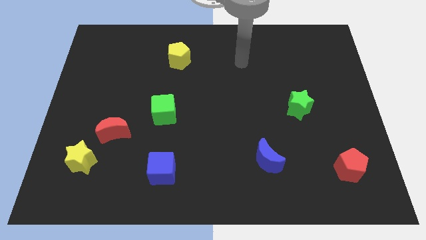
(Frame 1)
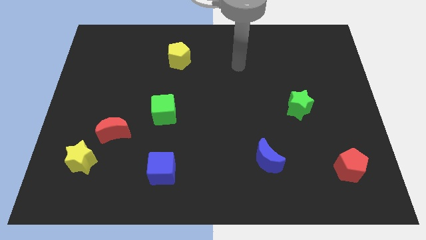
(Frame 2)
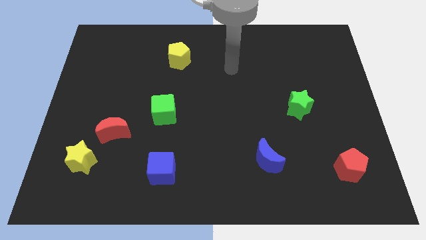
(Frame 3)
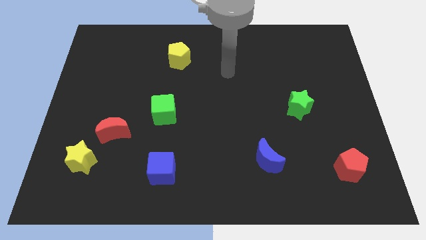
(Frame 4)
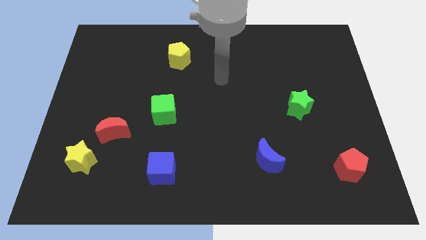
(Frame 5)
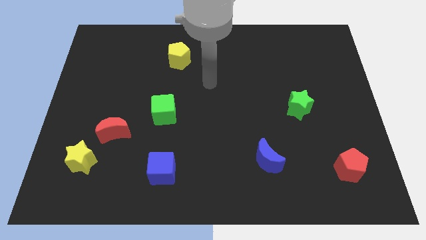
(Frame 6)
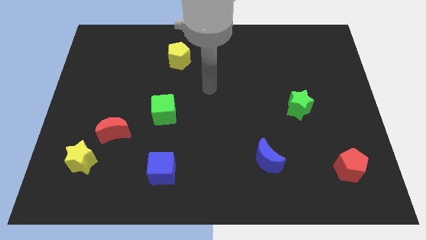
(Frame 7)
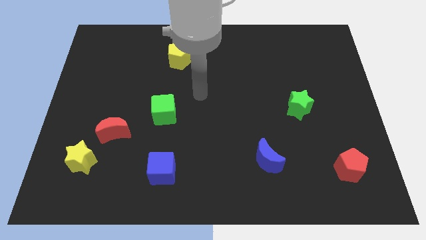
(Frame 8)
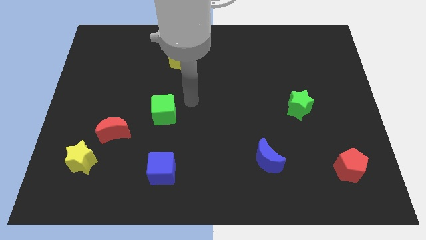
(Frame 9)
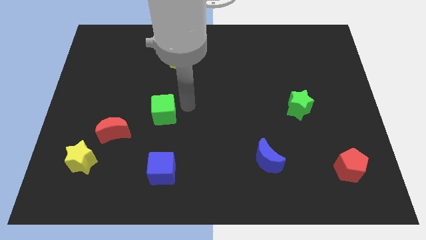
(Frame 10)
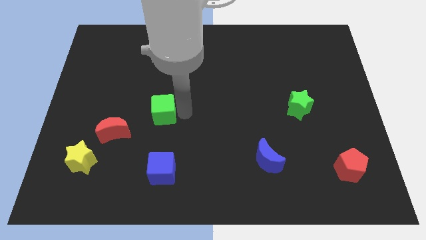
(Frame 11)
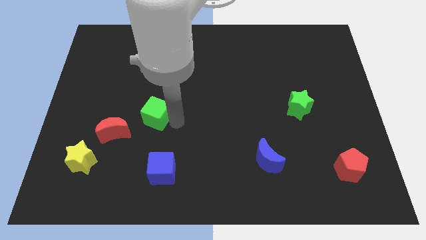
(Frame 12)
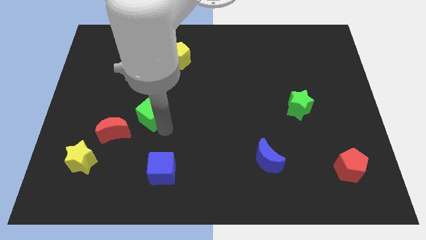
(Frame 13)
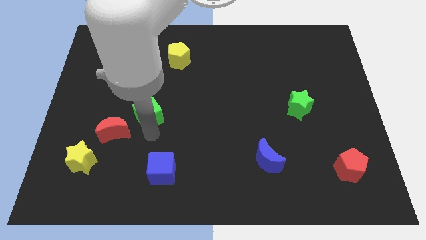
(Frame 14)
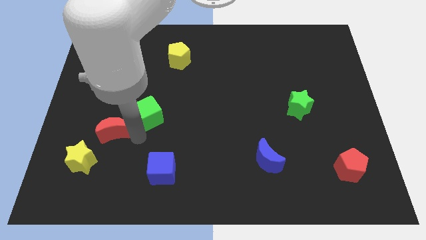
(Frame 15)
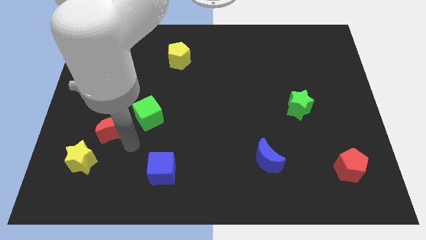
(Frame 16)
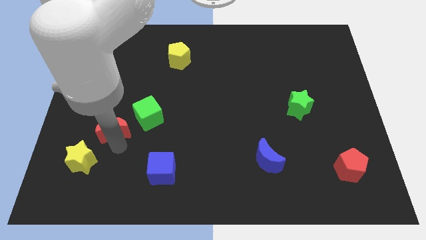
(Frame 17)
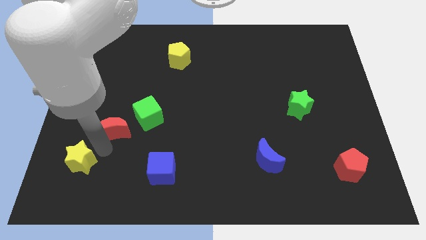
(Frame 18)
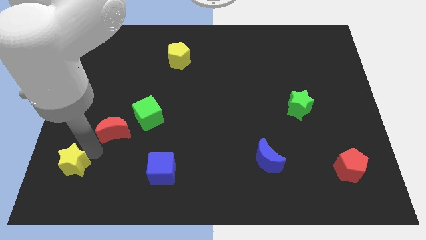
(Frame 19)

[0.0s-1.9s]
pull the red moon apart from the yellow star

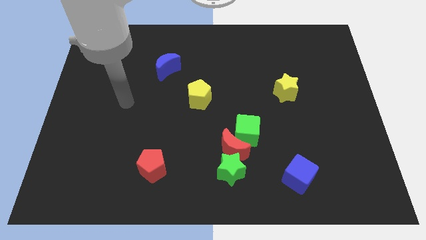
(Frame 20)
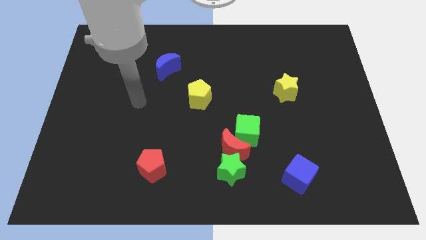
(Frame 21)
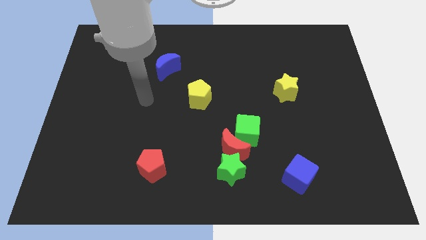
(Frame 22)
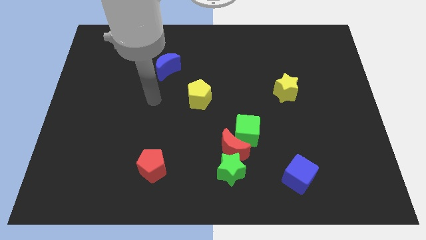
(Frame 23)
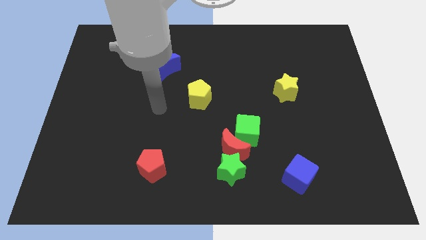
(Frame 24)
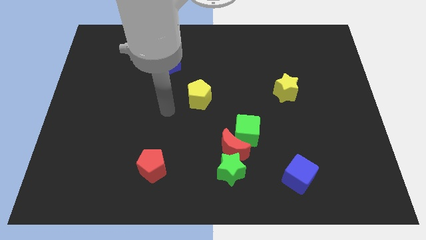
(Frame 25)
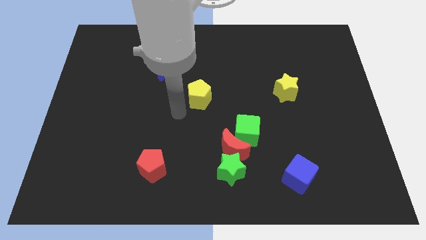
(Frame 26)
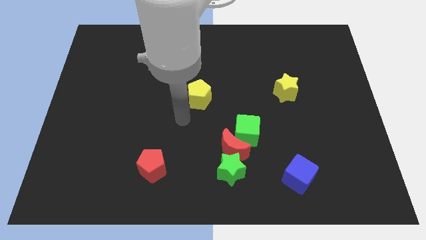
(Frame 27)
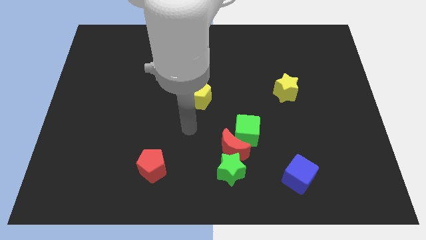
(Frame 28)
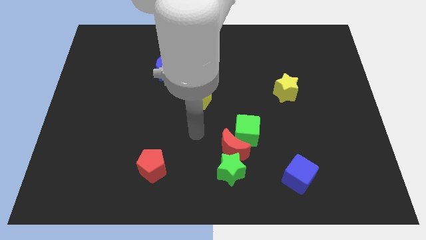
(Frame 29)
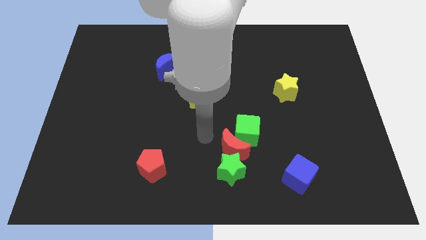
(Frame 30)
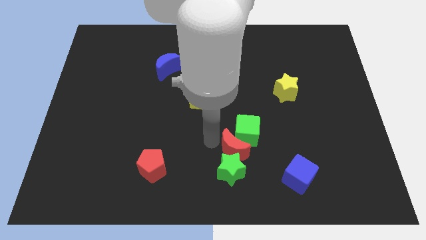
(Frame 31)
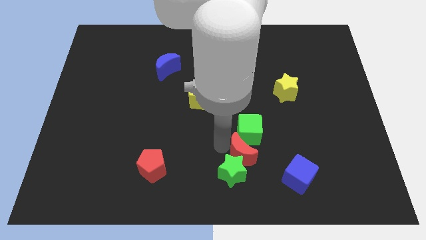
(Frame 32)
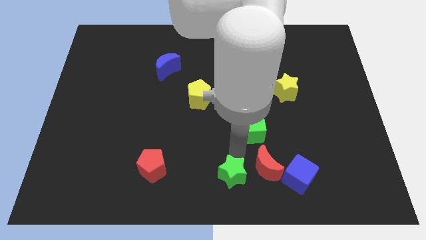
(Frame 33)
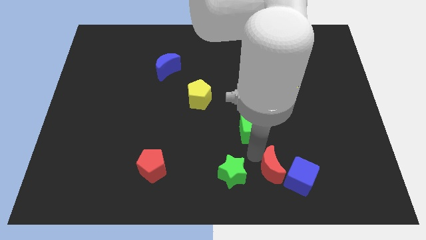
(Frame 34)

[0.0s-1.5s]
move the green cube away from the red moon

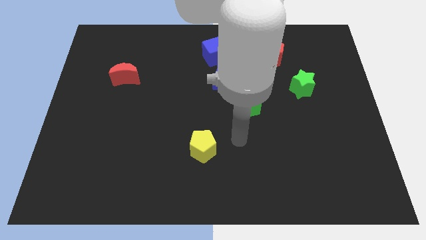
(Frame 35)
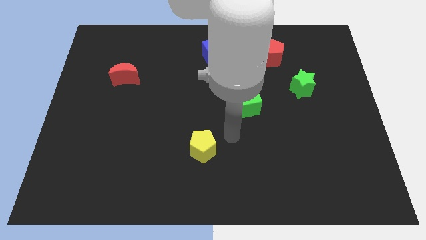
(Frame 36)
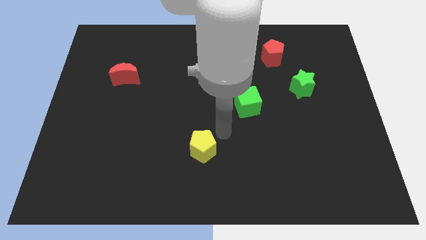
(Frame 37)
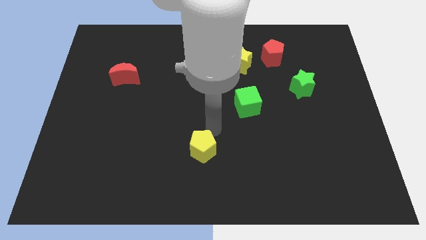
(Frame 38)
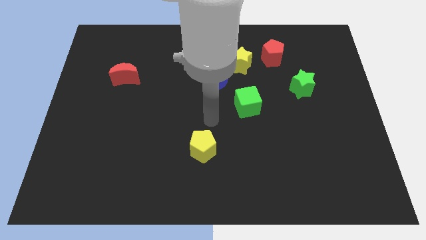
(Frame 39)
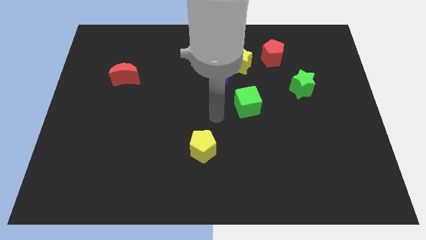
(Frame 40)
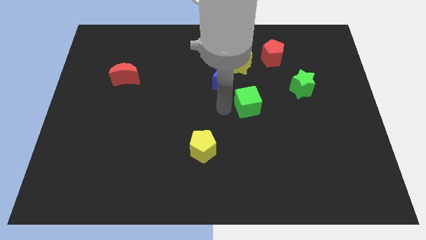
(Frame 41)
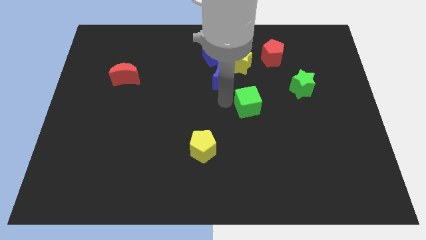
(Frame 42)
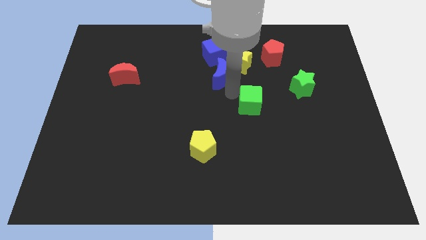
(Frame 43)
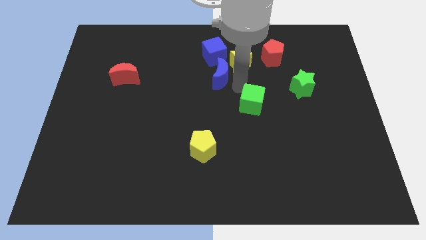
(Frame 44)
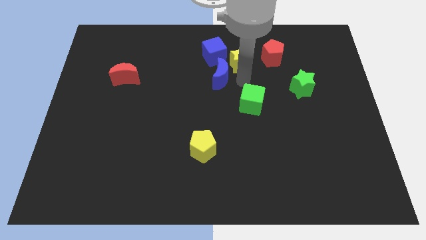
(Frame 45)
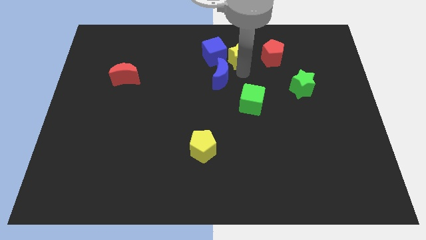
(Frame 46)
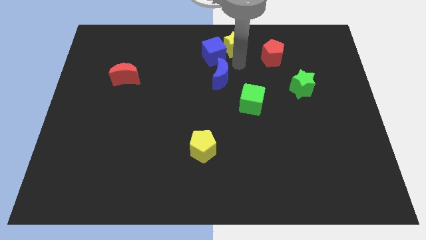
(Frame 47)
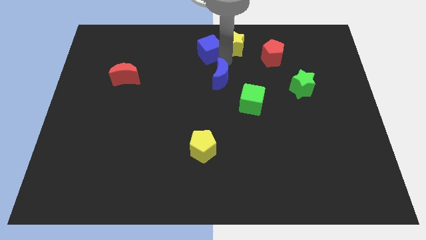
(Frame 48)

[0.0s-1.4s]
separate the blue moon from the yellow star and blue cube

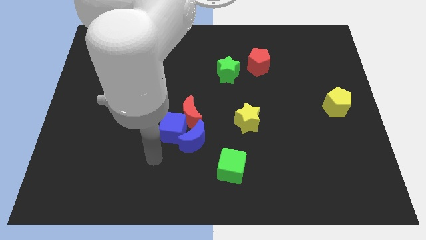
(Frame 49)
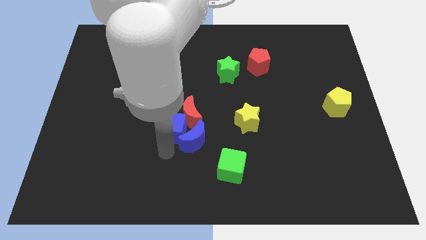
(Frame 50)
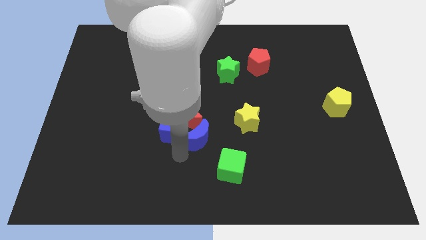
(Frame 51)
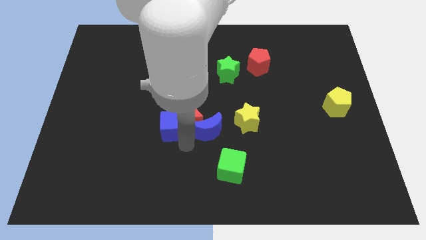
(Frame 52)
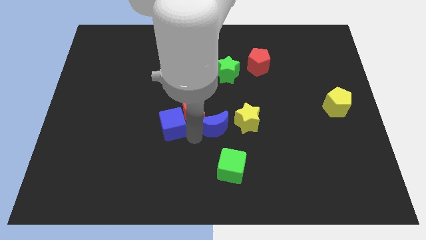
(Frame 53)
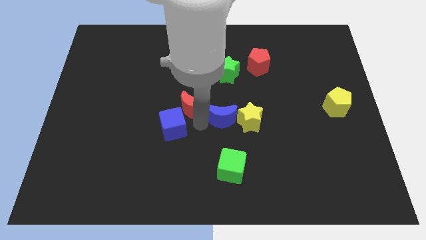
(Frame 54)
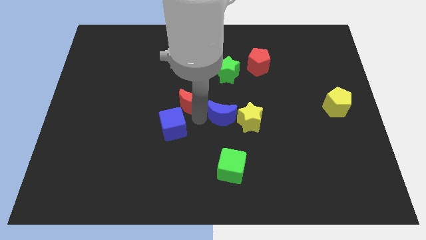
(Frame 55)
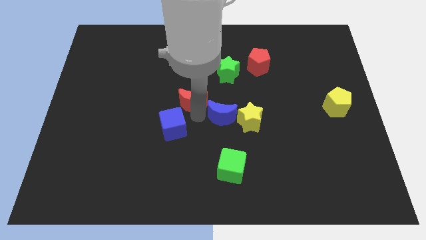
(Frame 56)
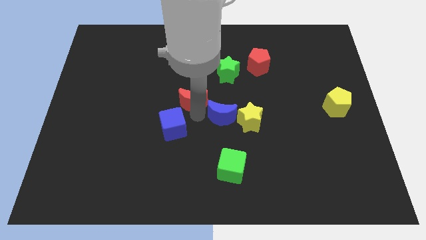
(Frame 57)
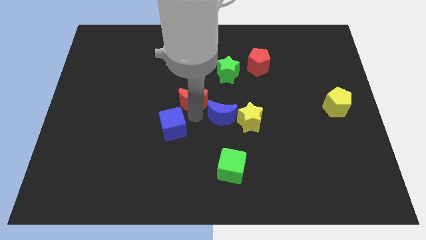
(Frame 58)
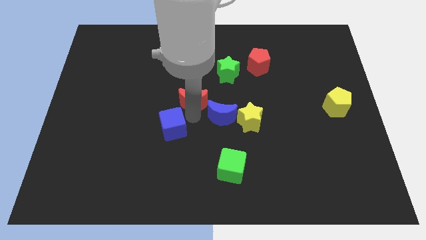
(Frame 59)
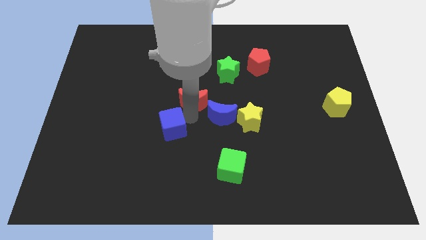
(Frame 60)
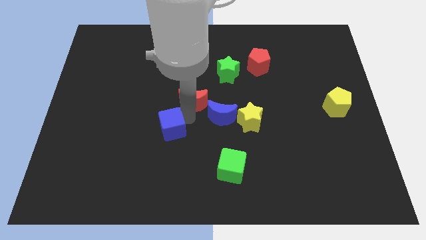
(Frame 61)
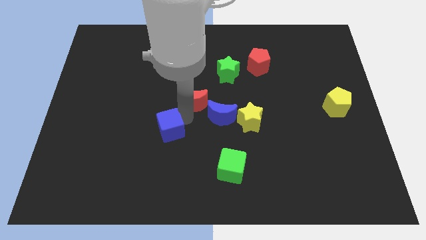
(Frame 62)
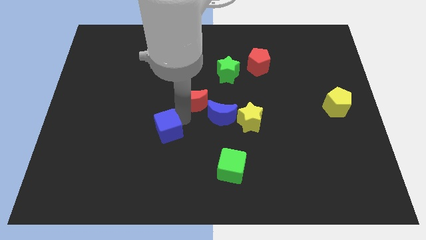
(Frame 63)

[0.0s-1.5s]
move the blue cube away from the red moon and blue moon

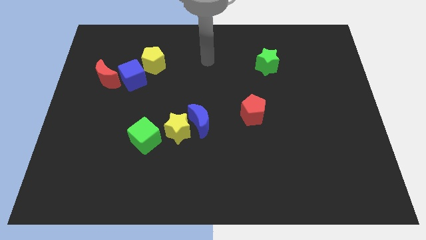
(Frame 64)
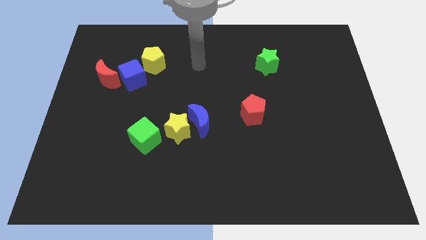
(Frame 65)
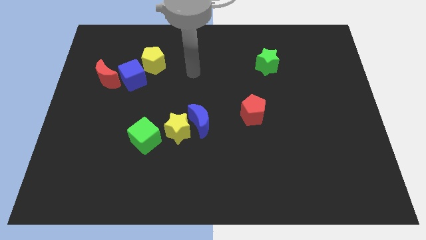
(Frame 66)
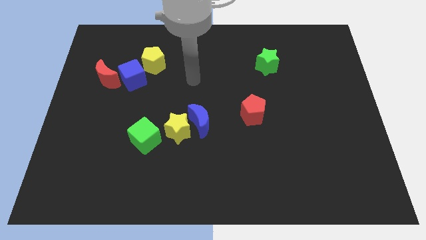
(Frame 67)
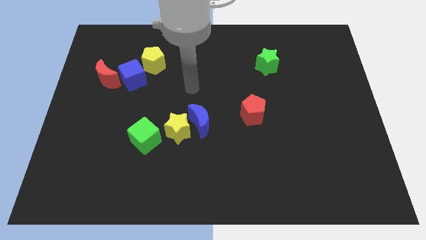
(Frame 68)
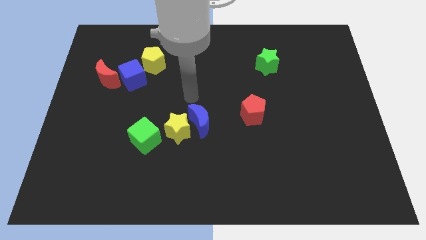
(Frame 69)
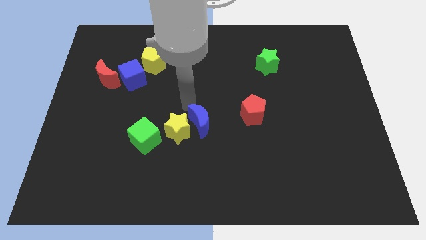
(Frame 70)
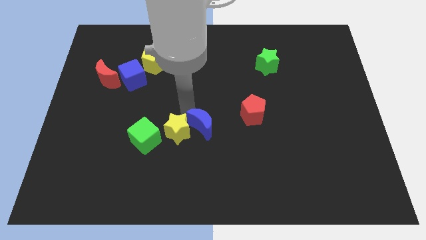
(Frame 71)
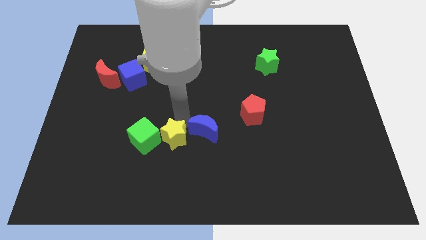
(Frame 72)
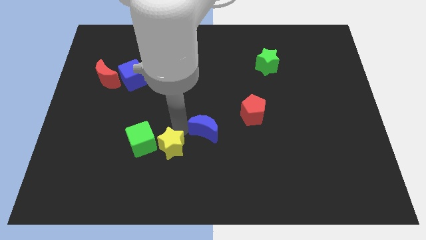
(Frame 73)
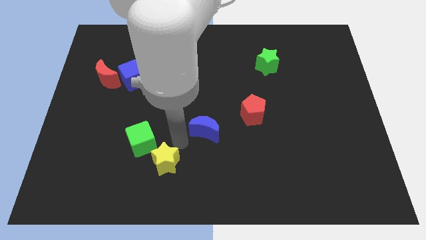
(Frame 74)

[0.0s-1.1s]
separate the blue moon from the yellow star

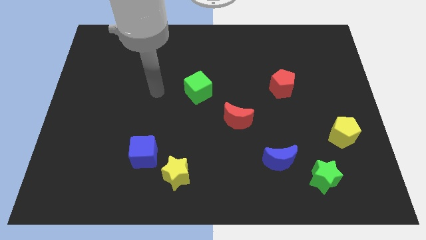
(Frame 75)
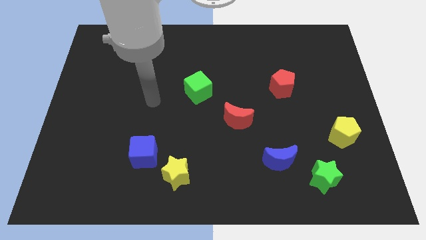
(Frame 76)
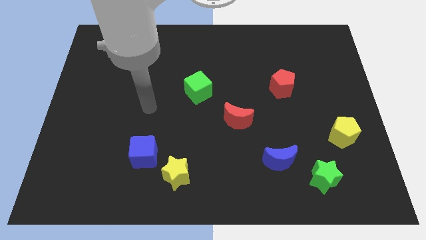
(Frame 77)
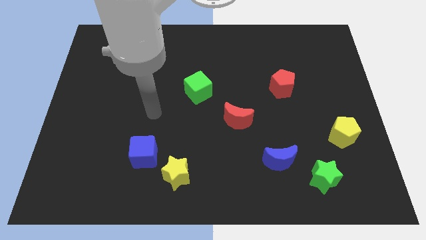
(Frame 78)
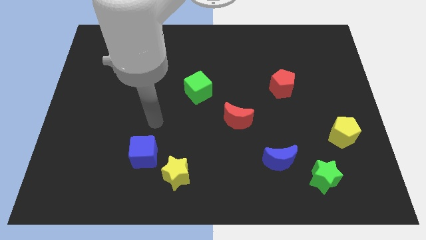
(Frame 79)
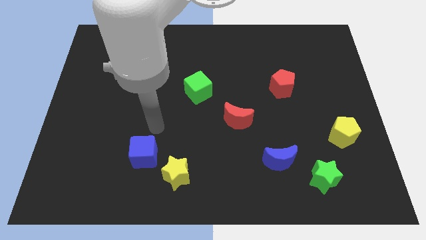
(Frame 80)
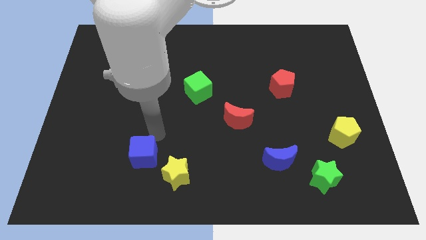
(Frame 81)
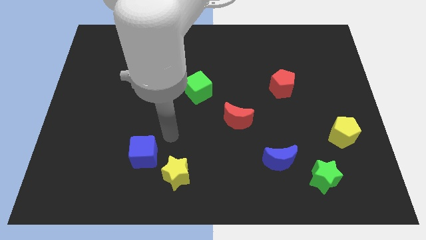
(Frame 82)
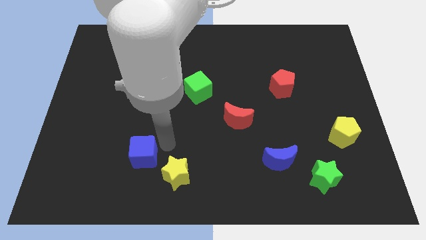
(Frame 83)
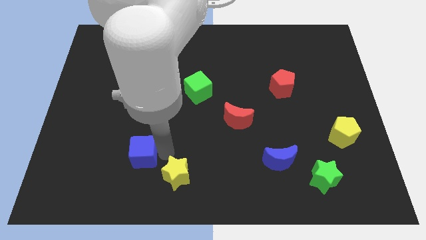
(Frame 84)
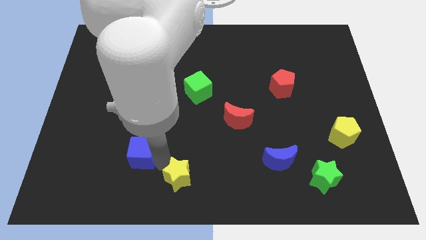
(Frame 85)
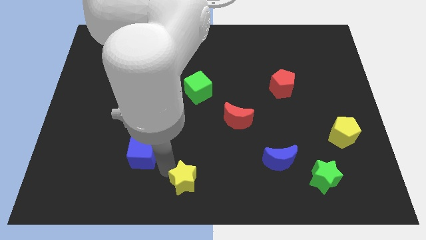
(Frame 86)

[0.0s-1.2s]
pull the blue cube apart from the yellow star

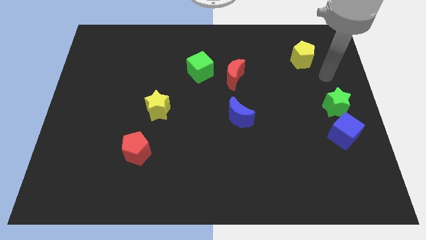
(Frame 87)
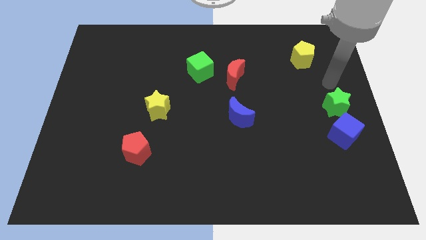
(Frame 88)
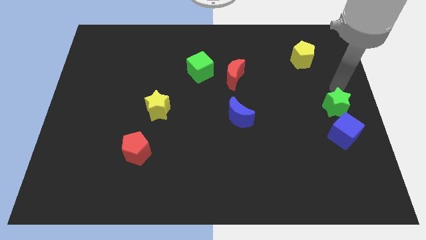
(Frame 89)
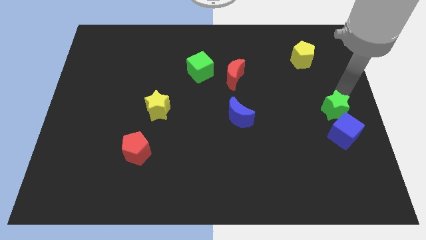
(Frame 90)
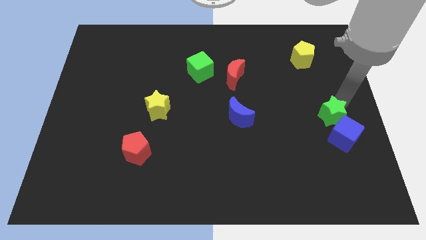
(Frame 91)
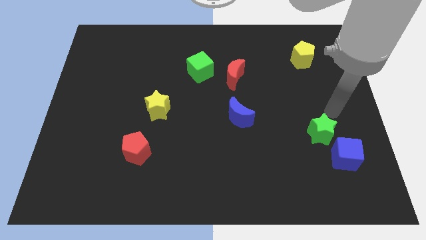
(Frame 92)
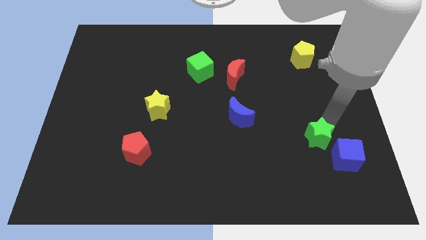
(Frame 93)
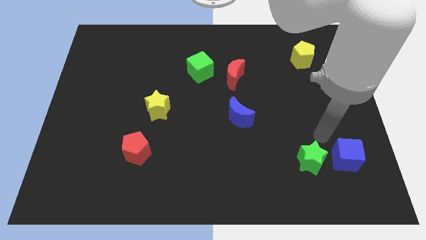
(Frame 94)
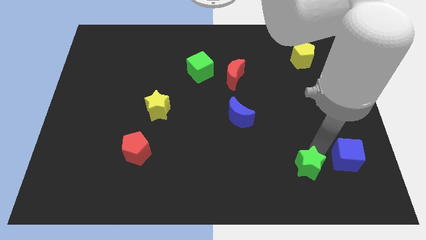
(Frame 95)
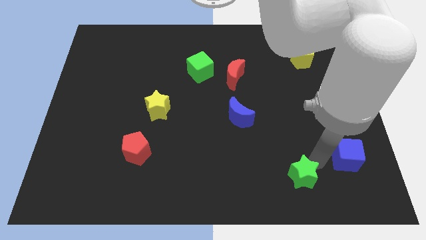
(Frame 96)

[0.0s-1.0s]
move the blue cube away from the green star
